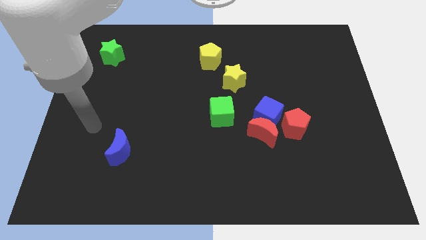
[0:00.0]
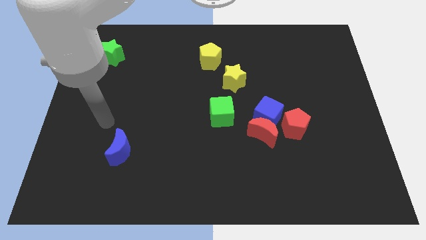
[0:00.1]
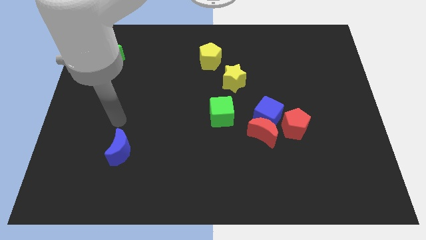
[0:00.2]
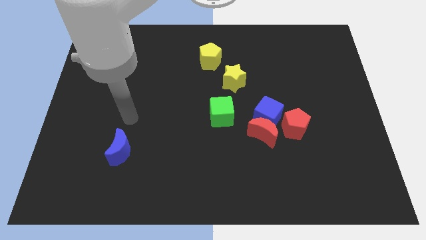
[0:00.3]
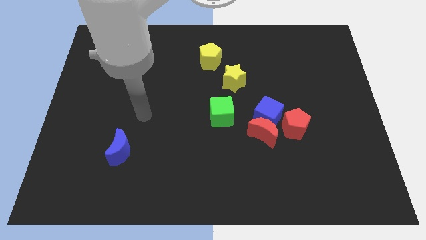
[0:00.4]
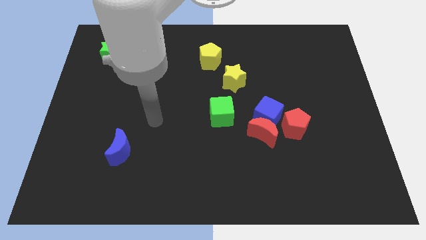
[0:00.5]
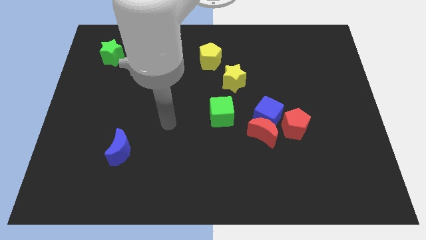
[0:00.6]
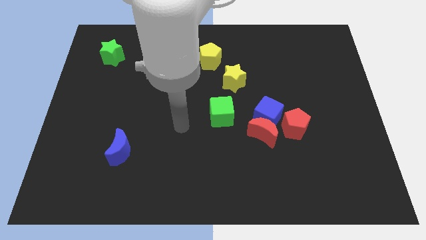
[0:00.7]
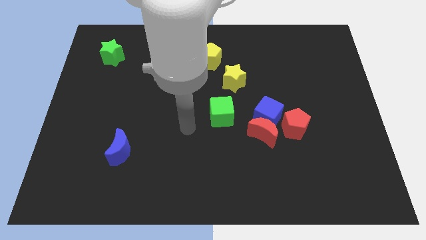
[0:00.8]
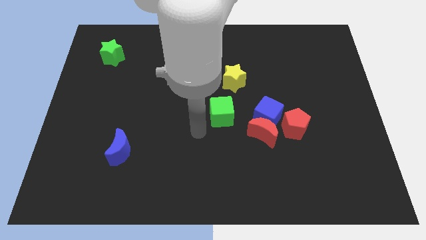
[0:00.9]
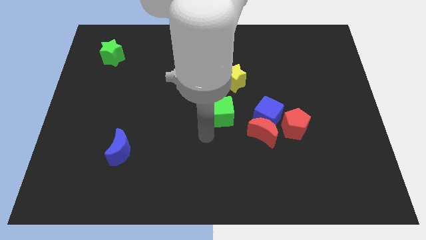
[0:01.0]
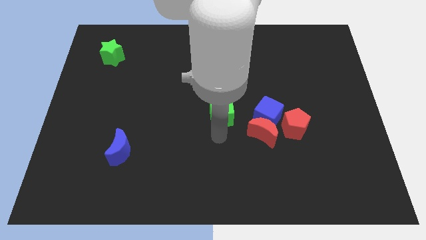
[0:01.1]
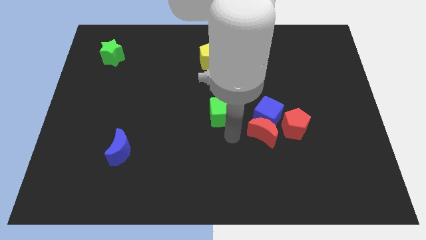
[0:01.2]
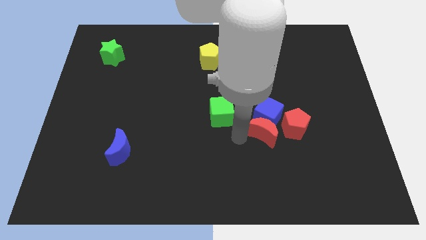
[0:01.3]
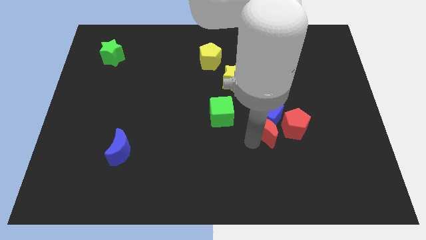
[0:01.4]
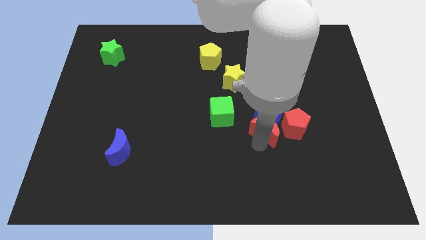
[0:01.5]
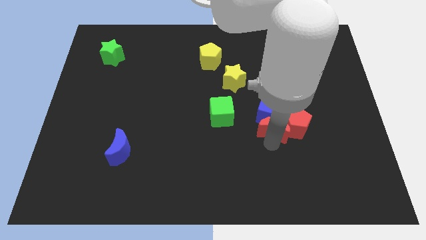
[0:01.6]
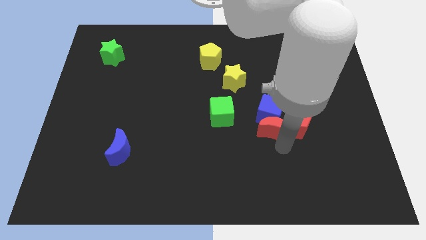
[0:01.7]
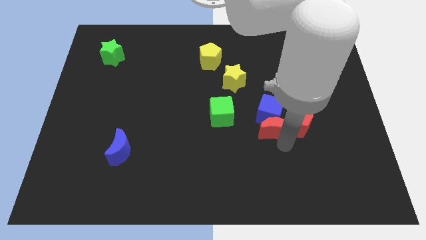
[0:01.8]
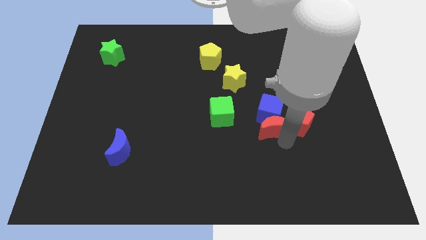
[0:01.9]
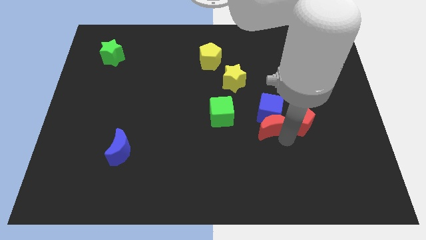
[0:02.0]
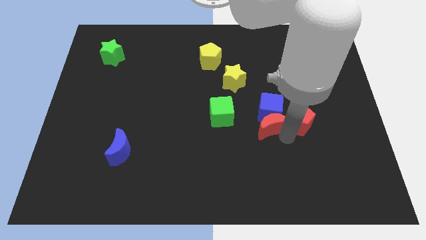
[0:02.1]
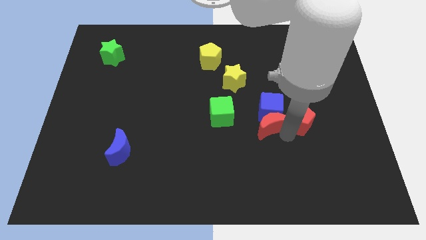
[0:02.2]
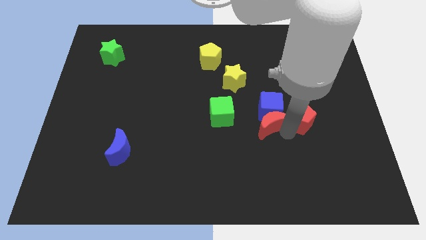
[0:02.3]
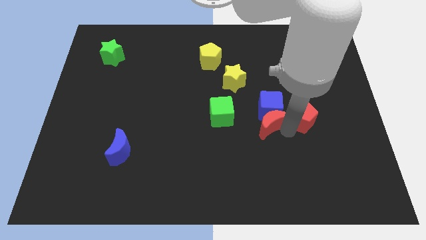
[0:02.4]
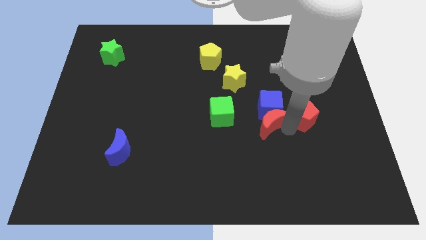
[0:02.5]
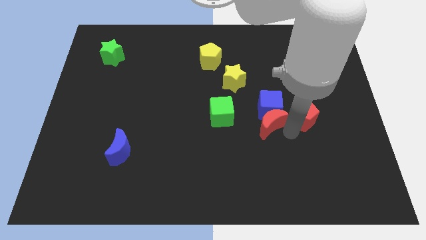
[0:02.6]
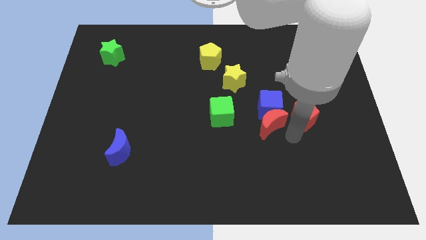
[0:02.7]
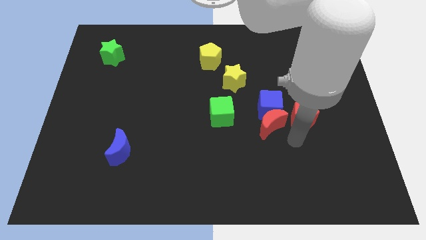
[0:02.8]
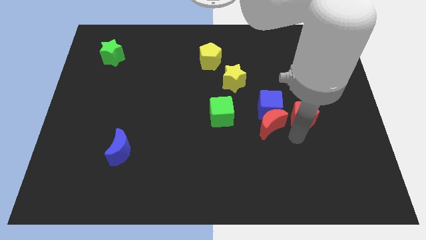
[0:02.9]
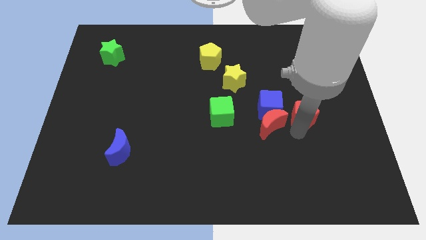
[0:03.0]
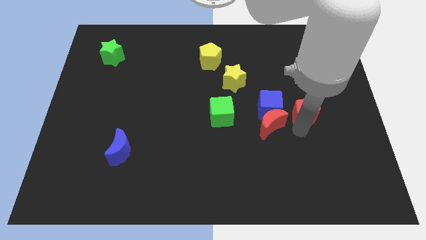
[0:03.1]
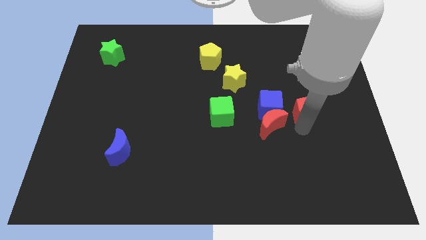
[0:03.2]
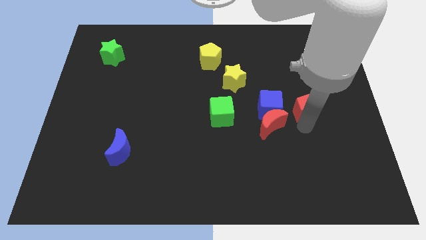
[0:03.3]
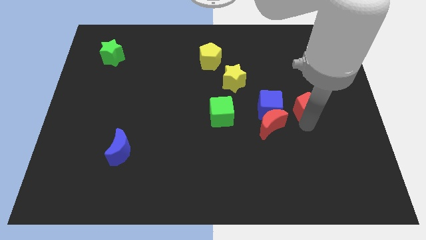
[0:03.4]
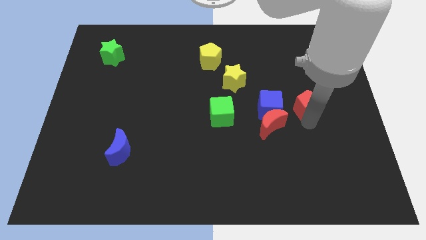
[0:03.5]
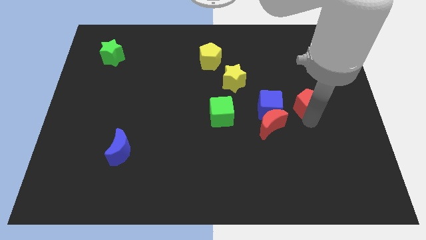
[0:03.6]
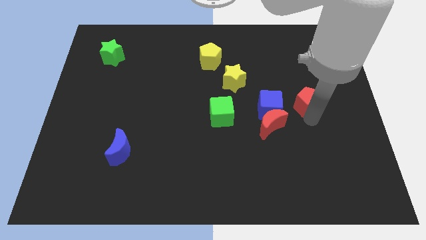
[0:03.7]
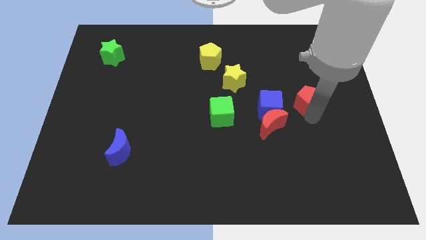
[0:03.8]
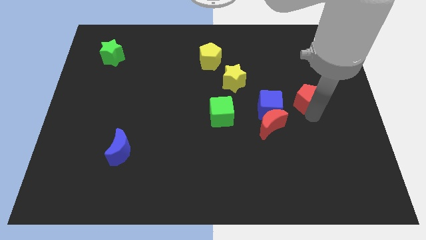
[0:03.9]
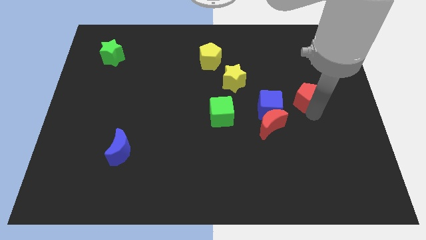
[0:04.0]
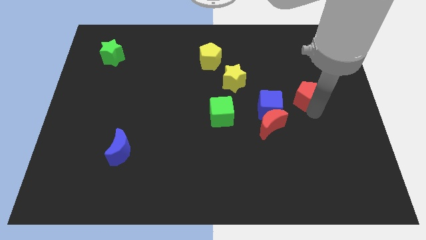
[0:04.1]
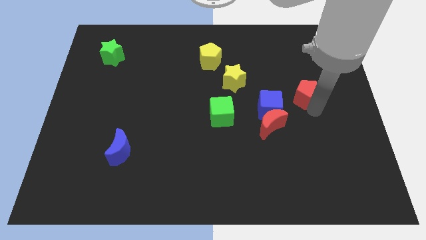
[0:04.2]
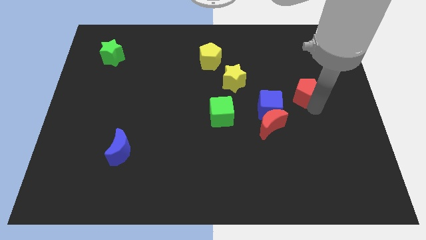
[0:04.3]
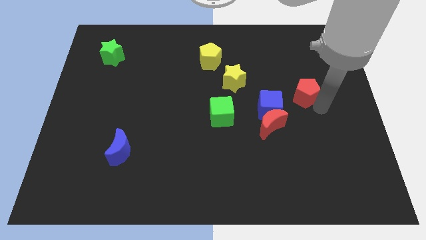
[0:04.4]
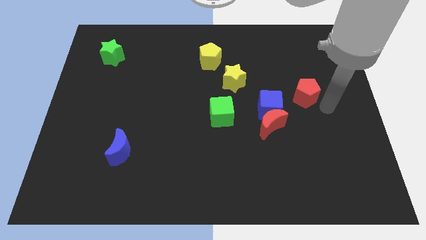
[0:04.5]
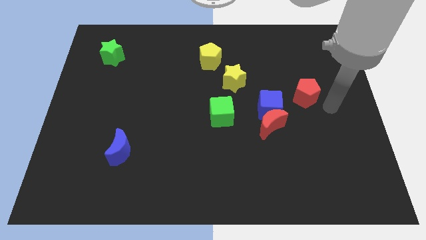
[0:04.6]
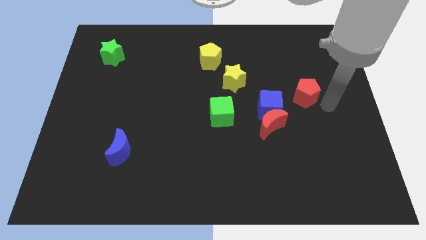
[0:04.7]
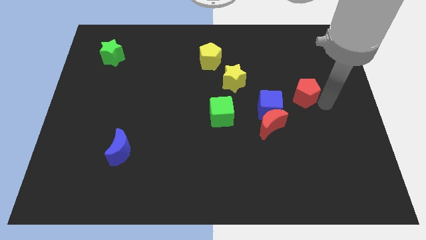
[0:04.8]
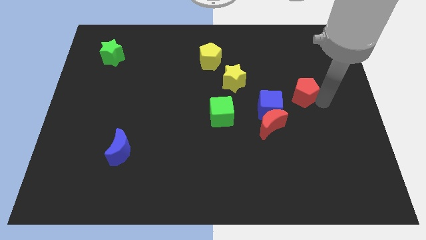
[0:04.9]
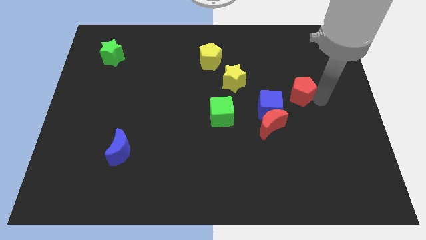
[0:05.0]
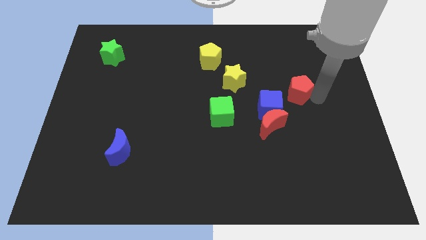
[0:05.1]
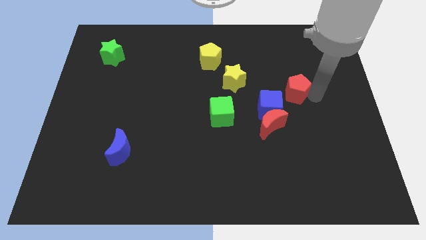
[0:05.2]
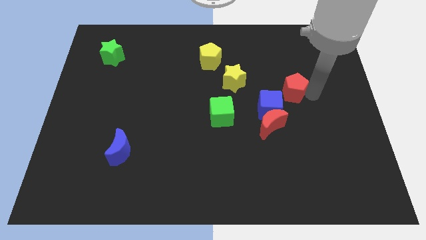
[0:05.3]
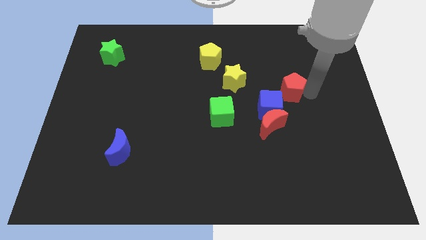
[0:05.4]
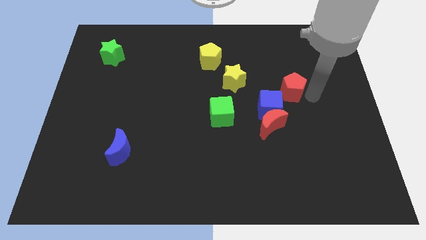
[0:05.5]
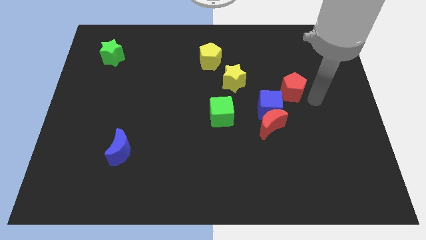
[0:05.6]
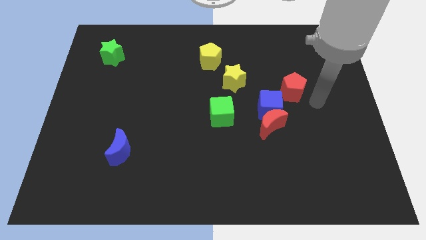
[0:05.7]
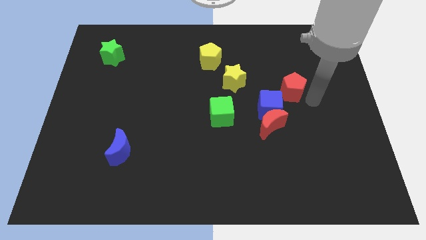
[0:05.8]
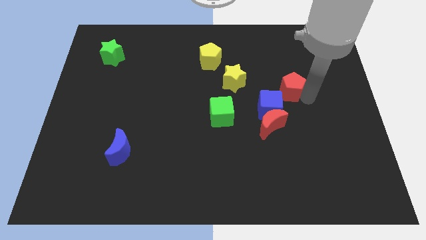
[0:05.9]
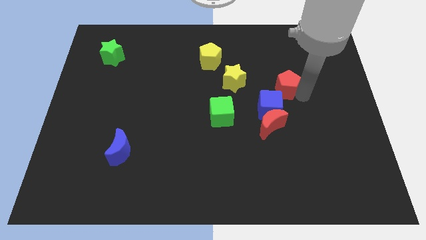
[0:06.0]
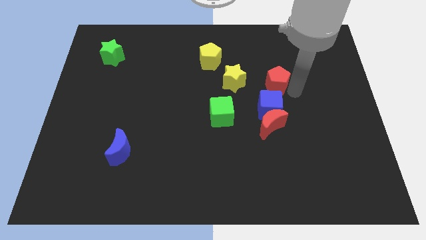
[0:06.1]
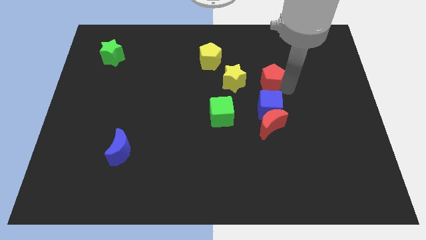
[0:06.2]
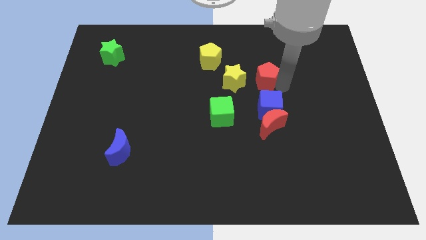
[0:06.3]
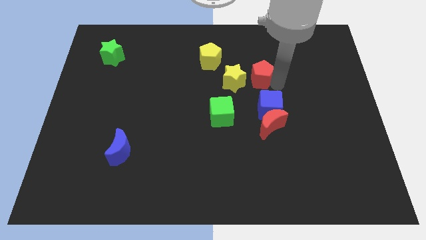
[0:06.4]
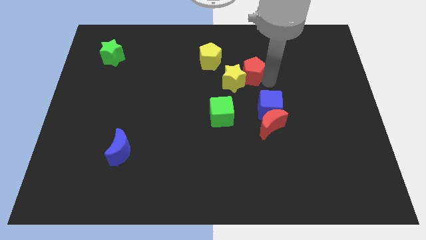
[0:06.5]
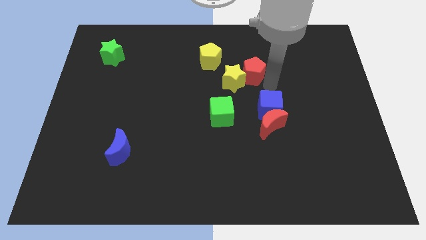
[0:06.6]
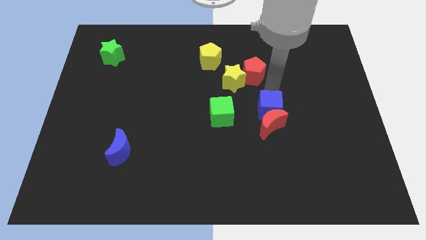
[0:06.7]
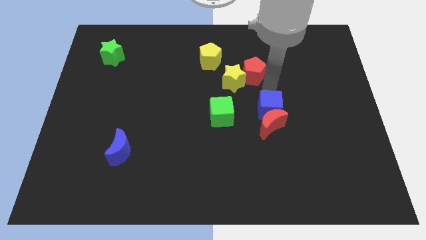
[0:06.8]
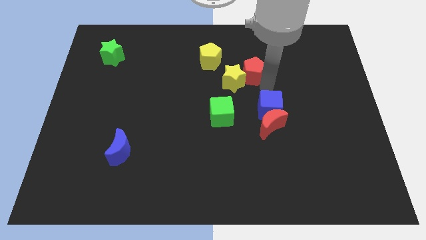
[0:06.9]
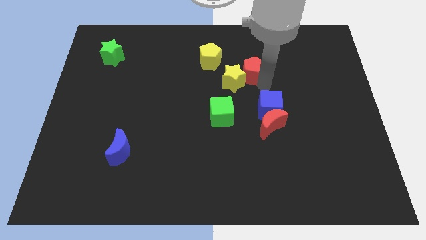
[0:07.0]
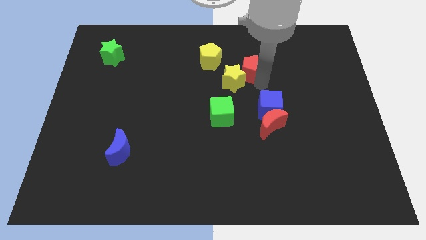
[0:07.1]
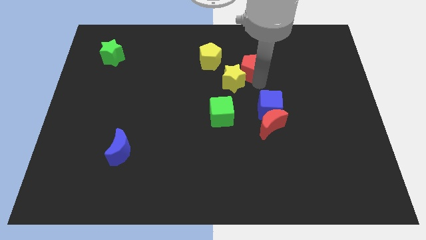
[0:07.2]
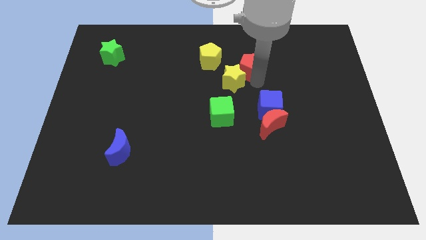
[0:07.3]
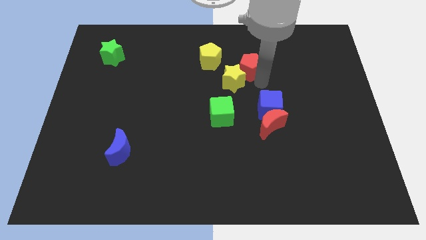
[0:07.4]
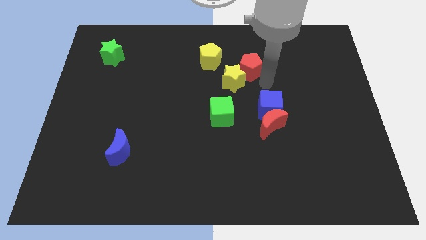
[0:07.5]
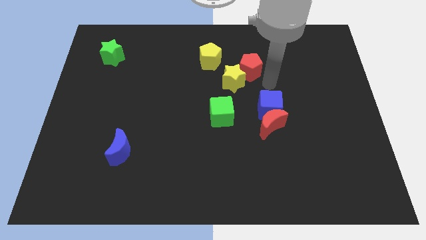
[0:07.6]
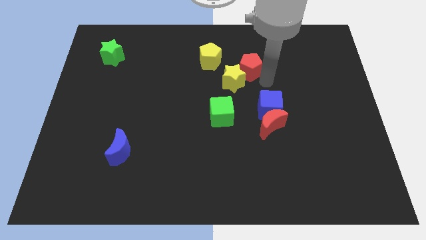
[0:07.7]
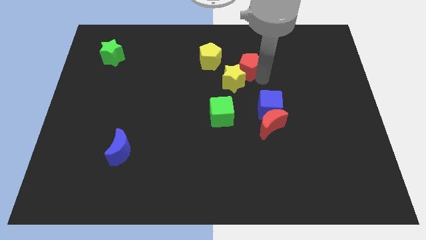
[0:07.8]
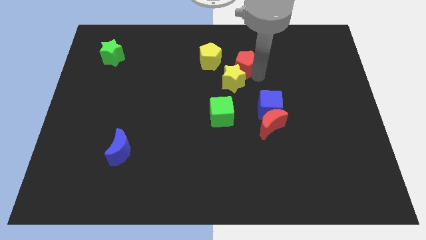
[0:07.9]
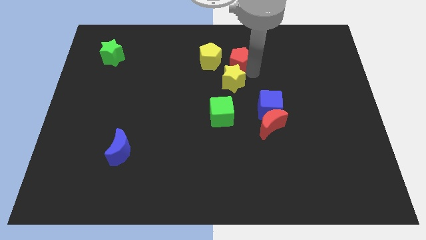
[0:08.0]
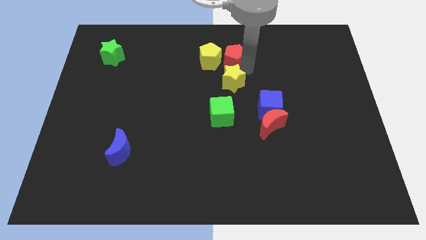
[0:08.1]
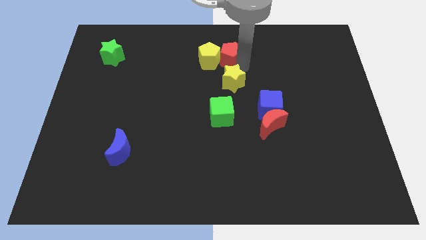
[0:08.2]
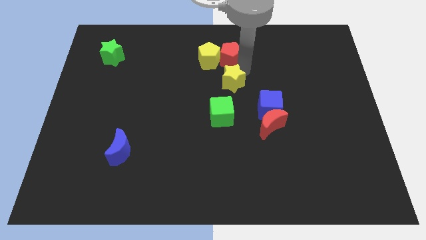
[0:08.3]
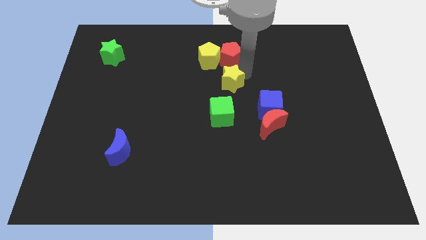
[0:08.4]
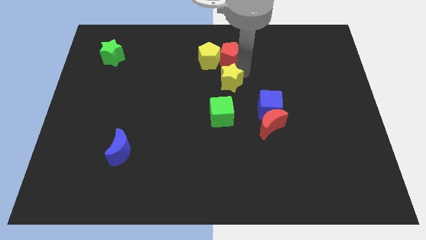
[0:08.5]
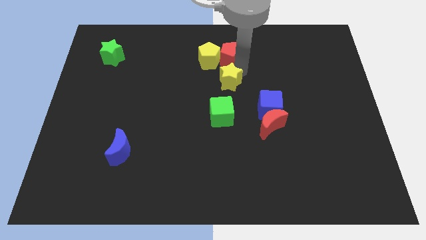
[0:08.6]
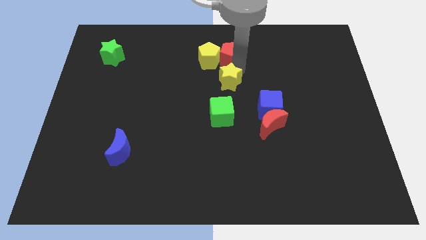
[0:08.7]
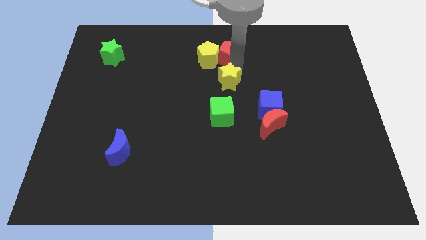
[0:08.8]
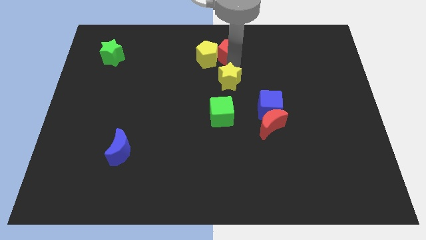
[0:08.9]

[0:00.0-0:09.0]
put the red pentagon to the top side
